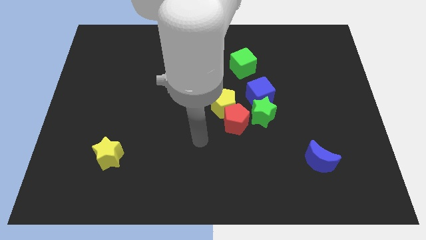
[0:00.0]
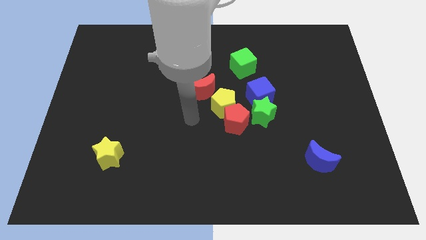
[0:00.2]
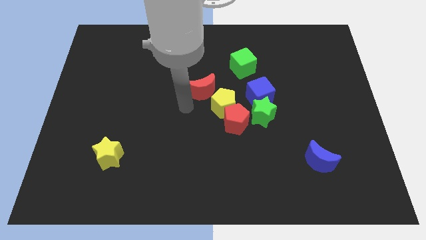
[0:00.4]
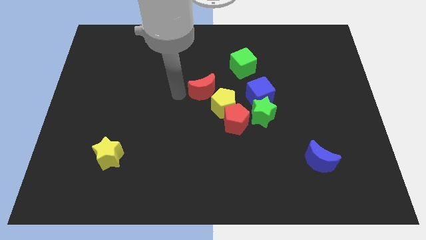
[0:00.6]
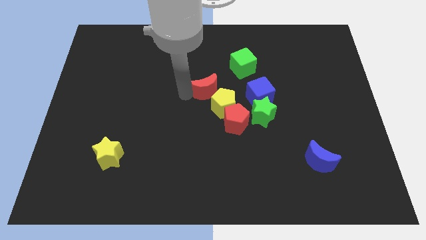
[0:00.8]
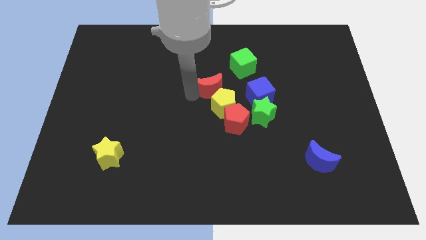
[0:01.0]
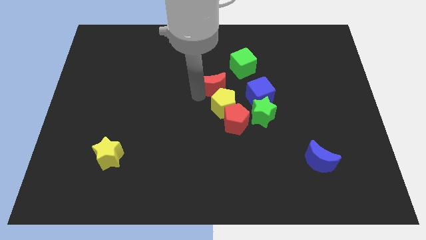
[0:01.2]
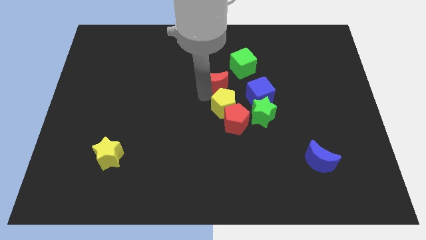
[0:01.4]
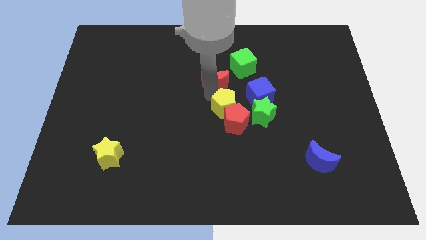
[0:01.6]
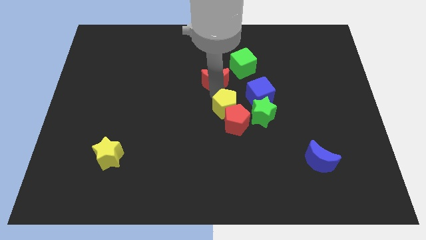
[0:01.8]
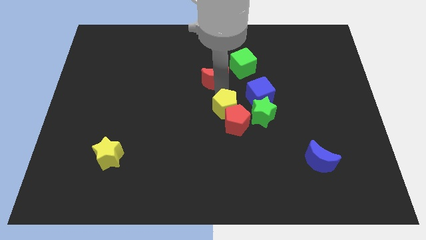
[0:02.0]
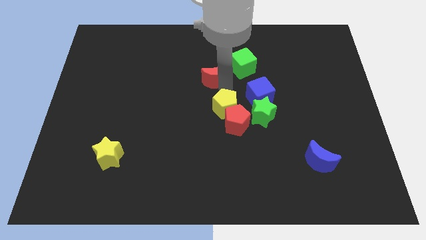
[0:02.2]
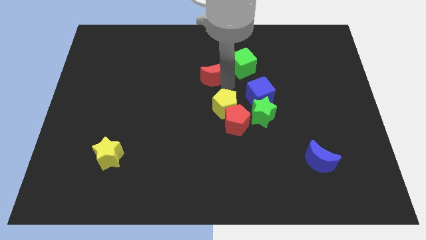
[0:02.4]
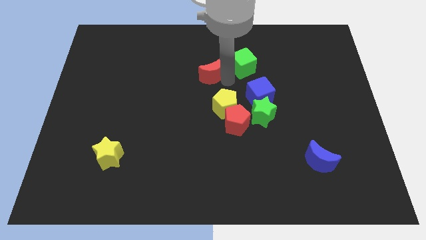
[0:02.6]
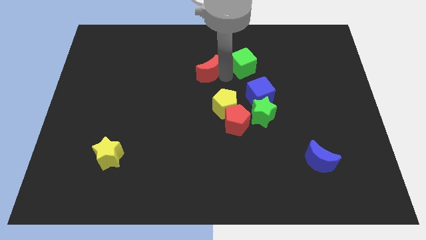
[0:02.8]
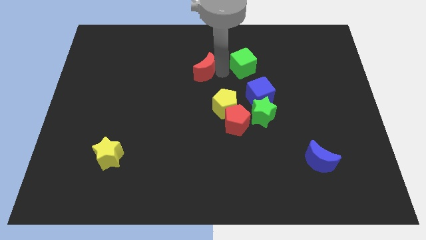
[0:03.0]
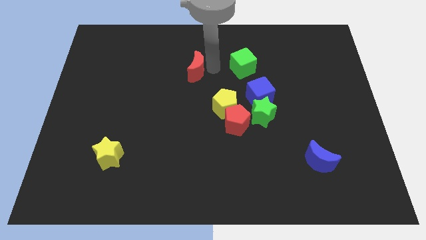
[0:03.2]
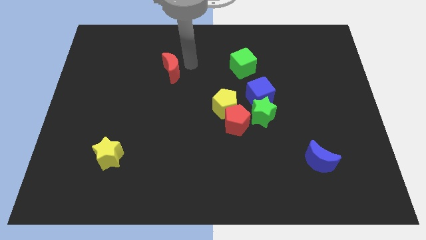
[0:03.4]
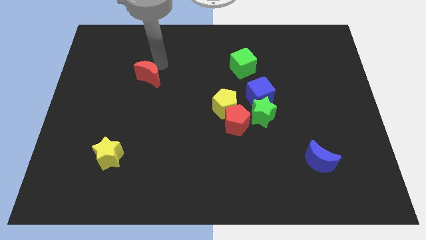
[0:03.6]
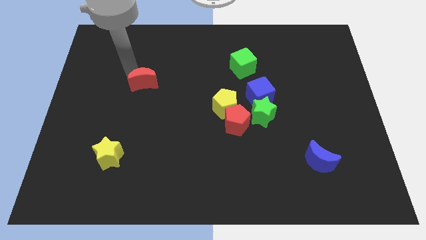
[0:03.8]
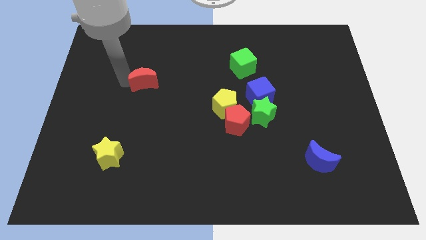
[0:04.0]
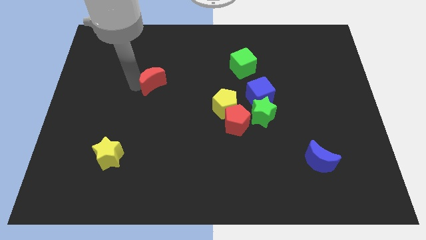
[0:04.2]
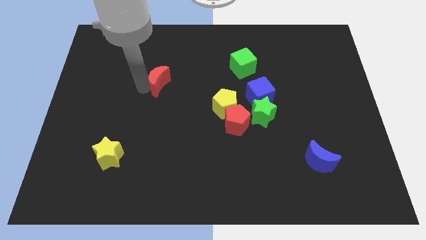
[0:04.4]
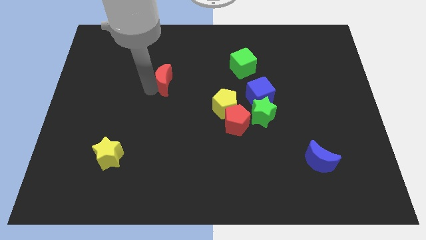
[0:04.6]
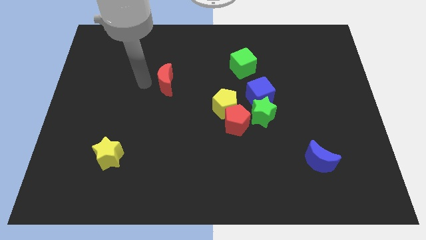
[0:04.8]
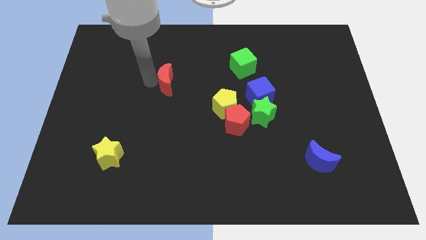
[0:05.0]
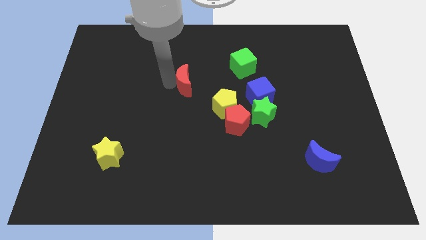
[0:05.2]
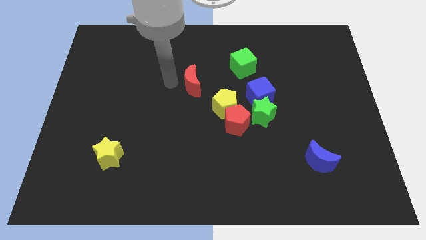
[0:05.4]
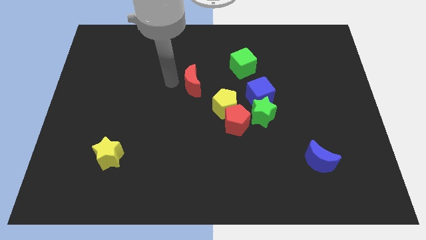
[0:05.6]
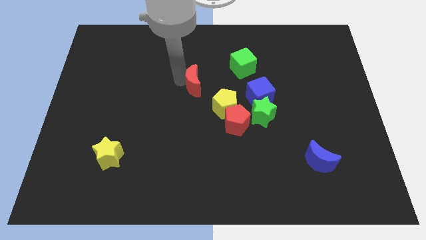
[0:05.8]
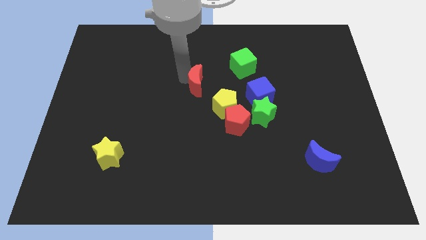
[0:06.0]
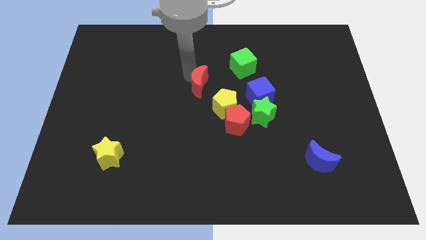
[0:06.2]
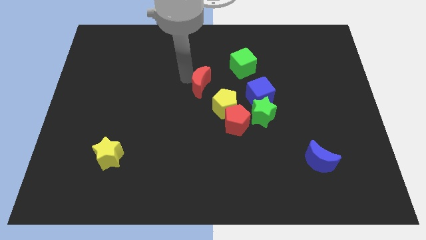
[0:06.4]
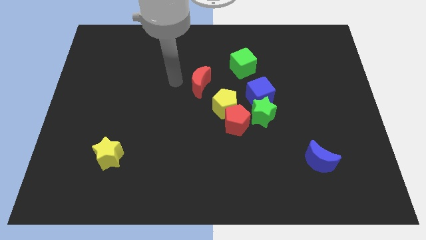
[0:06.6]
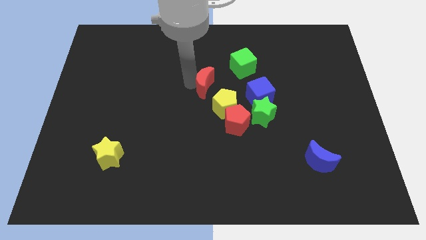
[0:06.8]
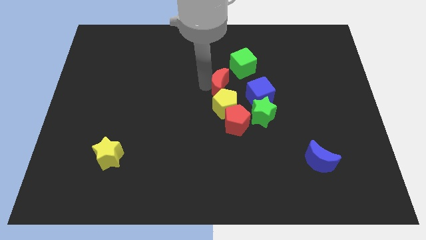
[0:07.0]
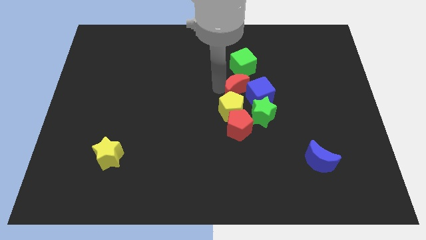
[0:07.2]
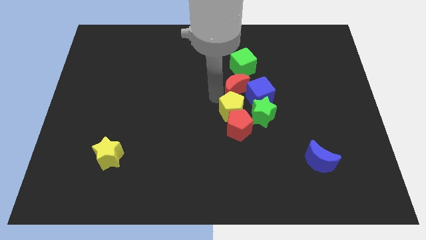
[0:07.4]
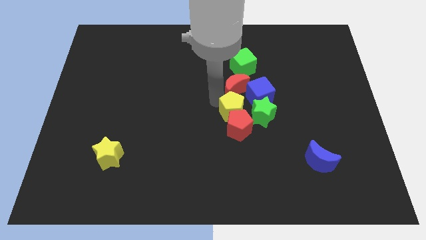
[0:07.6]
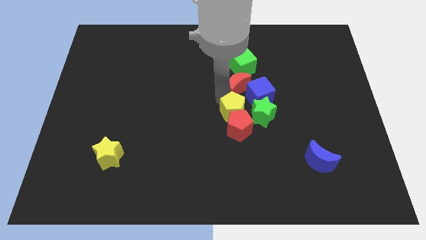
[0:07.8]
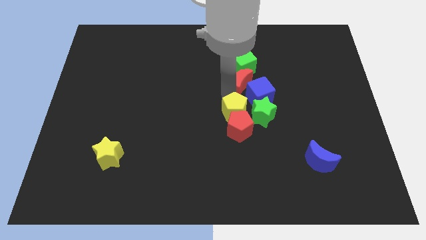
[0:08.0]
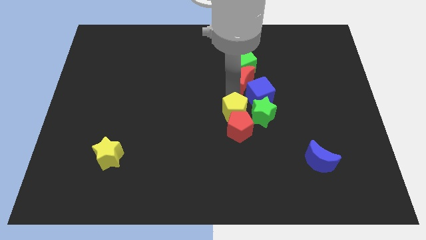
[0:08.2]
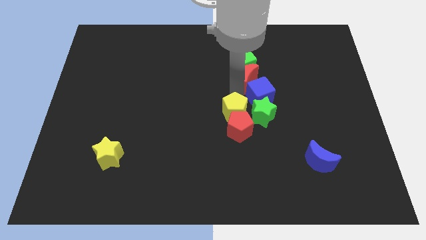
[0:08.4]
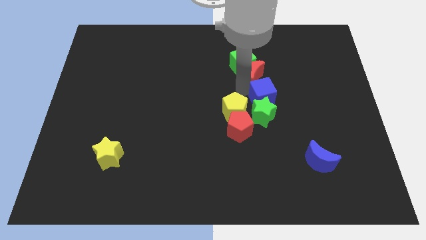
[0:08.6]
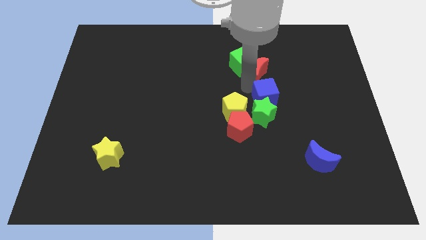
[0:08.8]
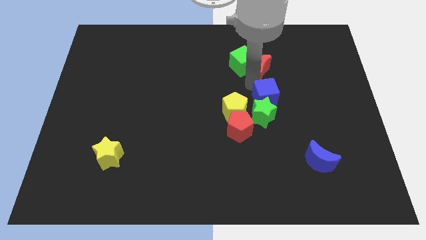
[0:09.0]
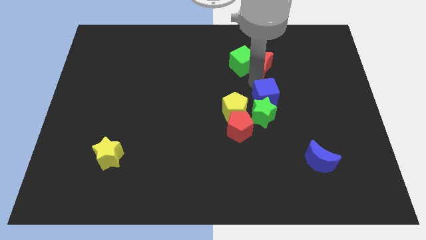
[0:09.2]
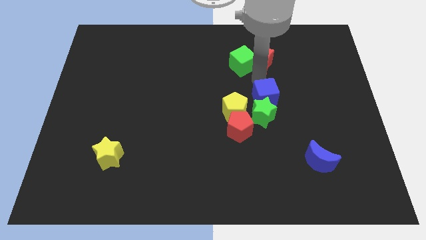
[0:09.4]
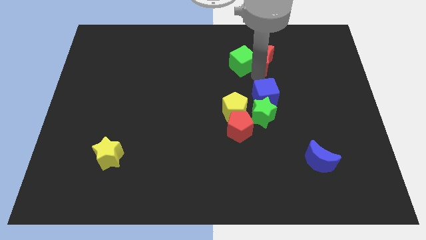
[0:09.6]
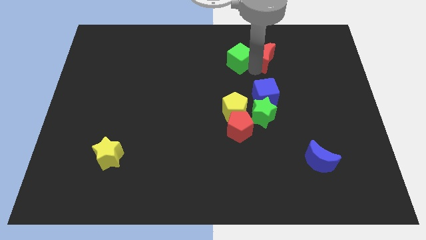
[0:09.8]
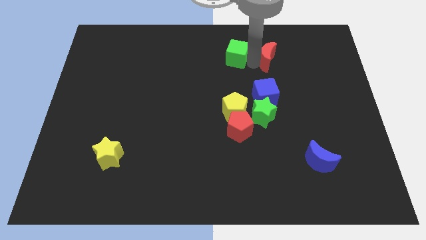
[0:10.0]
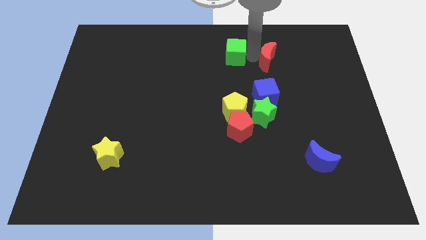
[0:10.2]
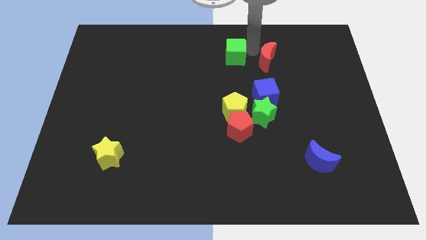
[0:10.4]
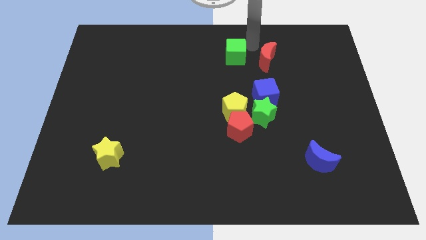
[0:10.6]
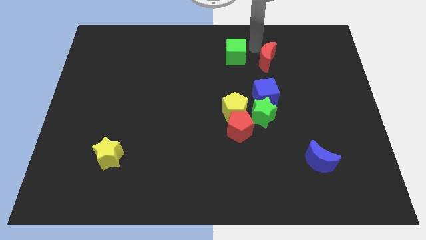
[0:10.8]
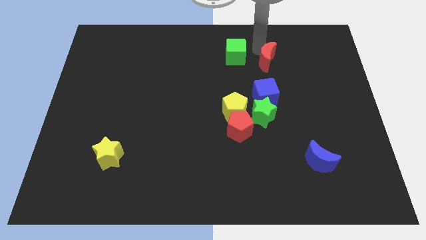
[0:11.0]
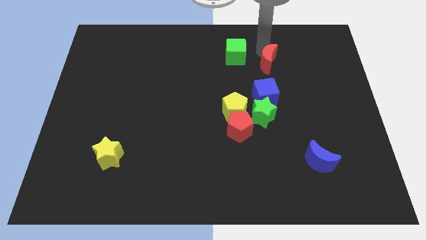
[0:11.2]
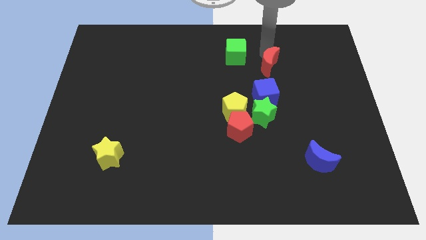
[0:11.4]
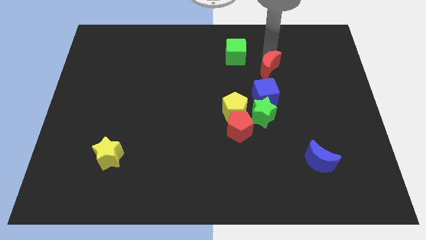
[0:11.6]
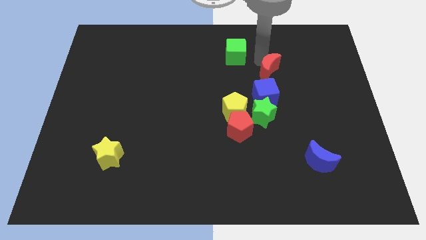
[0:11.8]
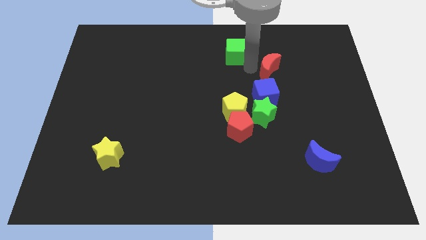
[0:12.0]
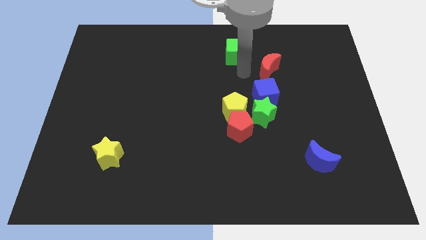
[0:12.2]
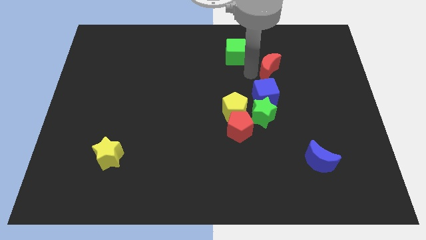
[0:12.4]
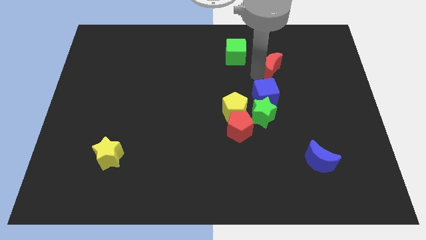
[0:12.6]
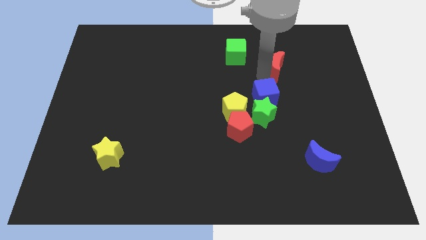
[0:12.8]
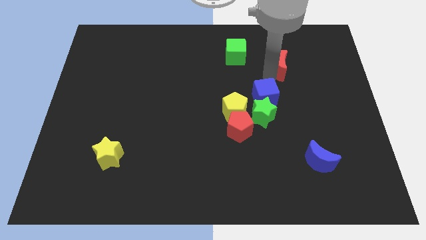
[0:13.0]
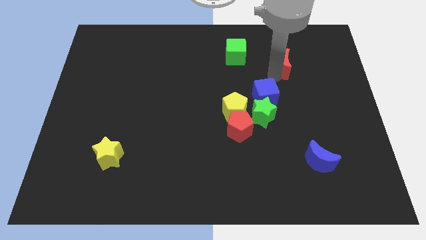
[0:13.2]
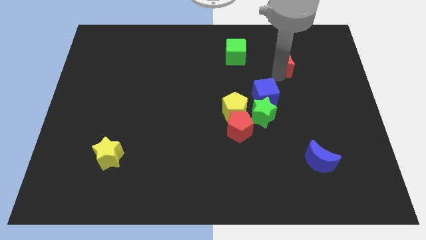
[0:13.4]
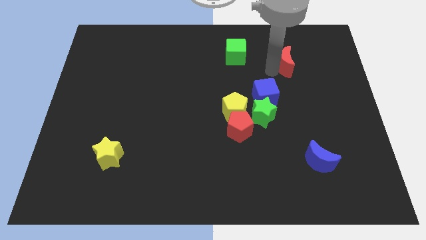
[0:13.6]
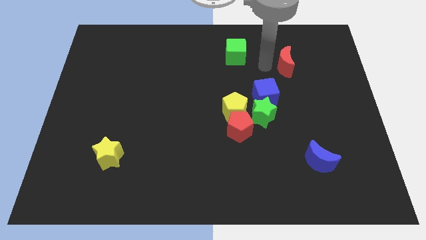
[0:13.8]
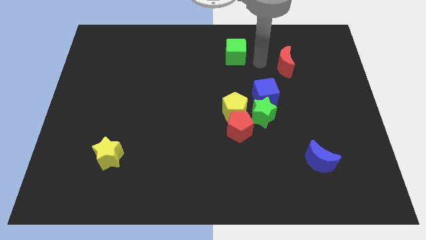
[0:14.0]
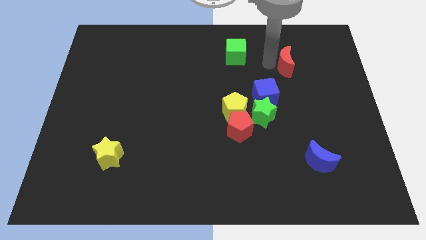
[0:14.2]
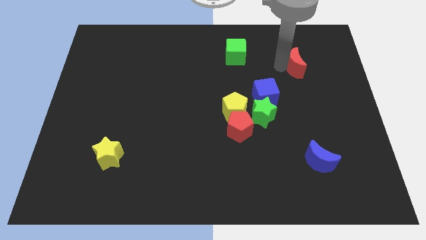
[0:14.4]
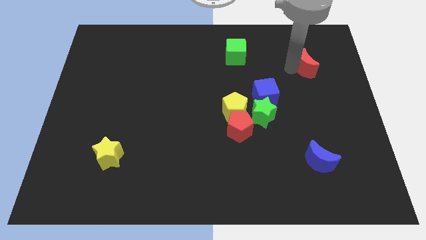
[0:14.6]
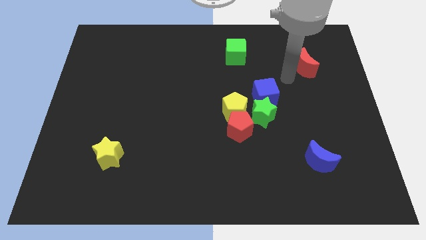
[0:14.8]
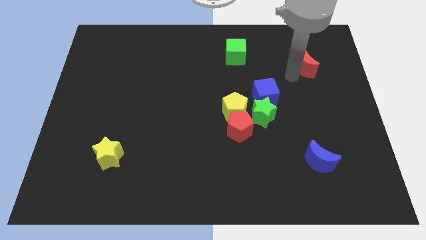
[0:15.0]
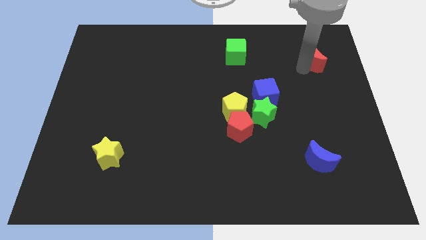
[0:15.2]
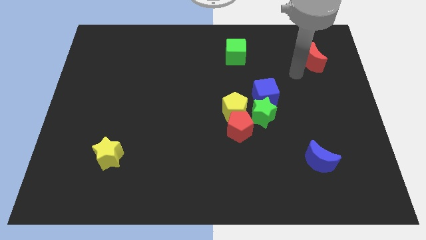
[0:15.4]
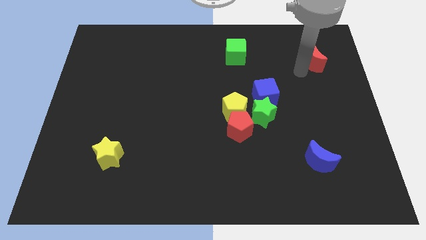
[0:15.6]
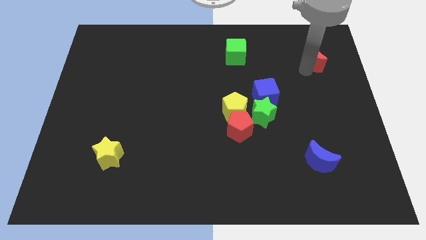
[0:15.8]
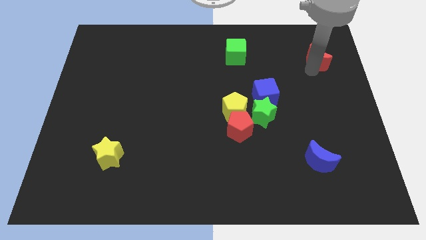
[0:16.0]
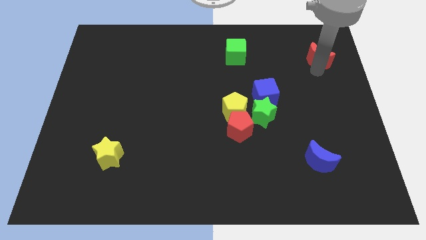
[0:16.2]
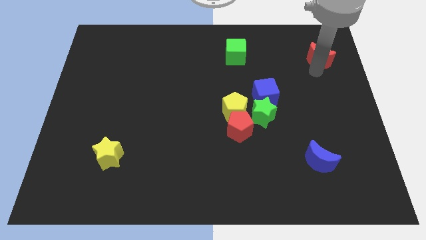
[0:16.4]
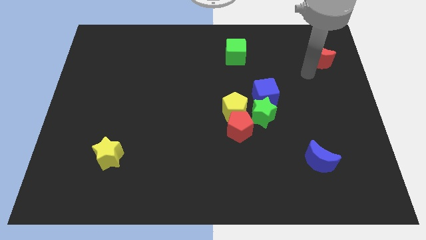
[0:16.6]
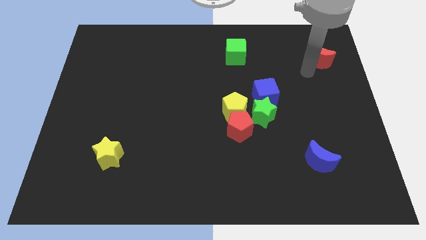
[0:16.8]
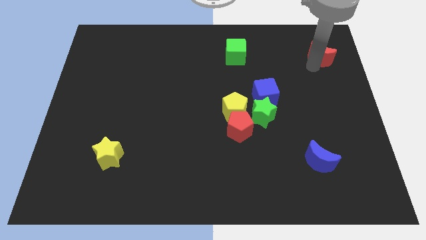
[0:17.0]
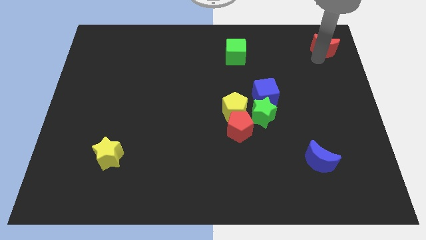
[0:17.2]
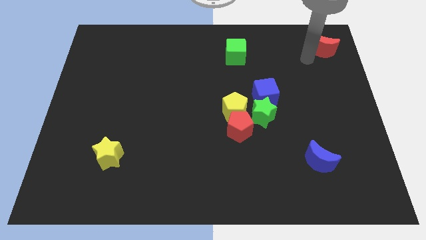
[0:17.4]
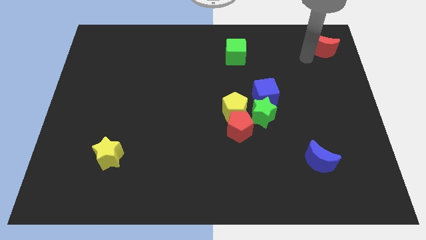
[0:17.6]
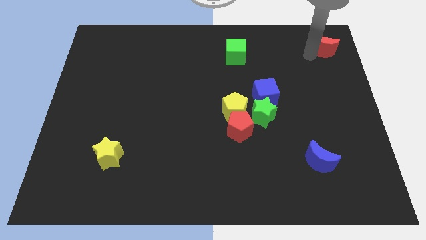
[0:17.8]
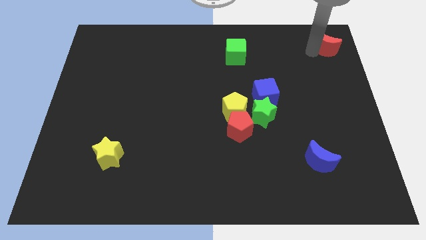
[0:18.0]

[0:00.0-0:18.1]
slide the red moon to the top right of the board
